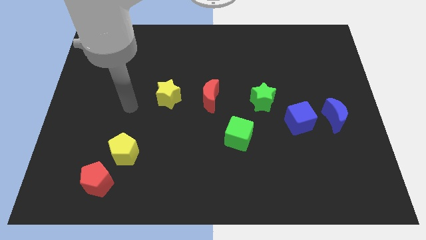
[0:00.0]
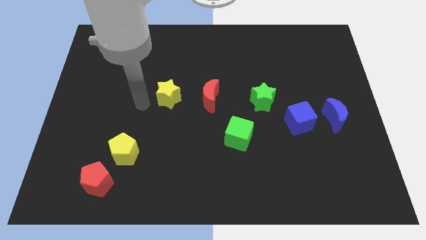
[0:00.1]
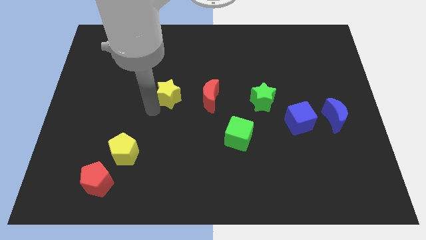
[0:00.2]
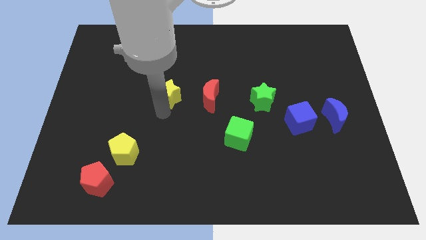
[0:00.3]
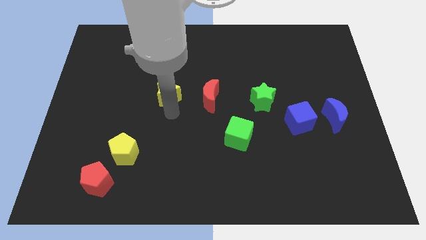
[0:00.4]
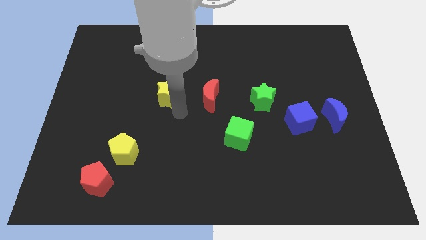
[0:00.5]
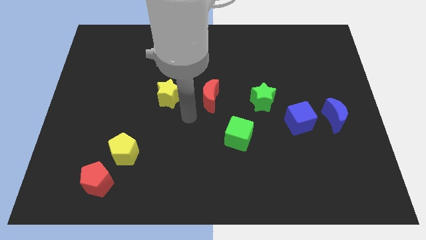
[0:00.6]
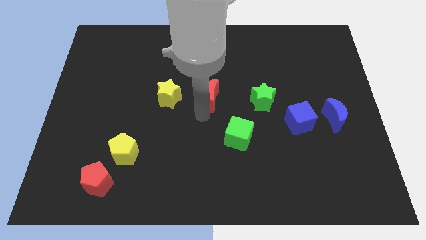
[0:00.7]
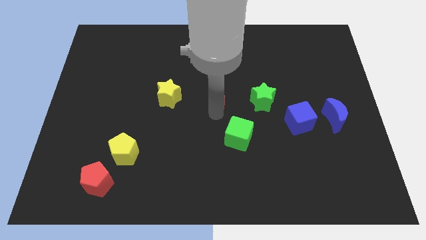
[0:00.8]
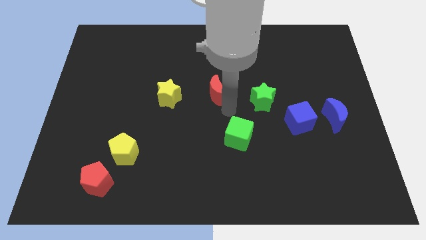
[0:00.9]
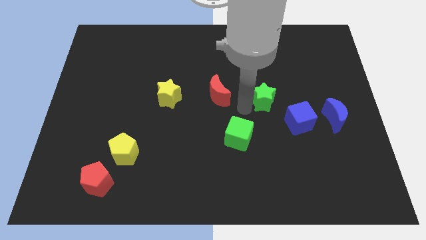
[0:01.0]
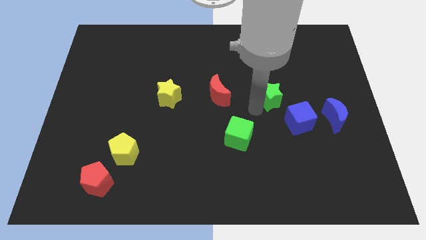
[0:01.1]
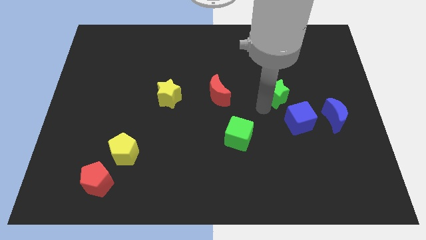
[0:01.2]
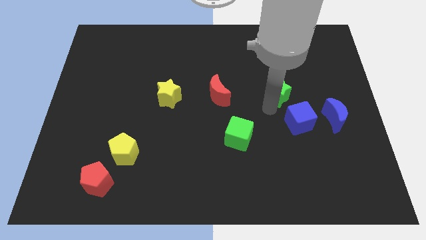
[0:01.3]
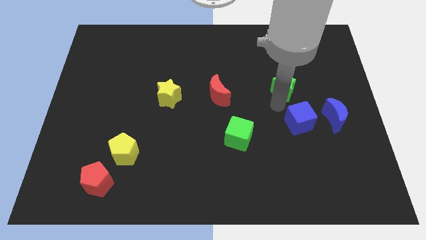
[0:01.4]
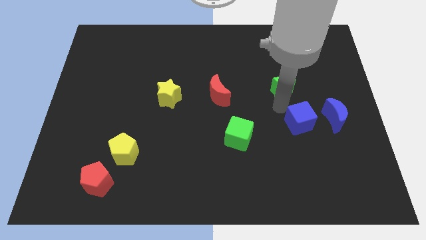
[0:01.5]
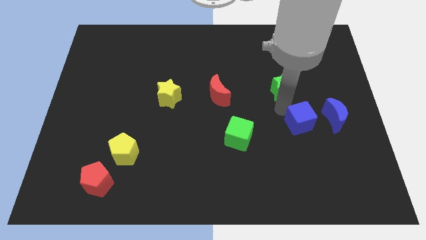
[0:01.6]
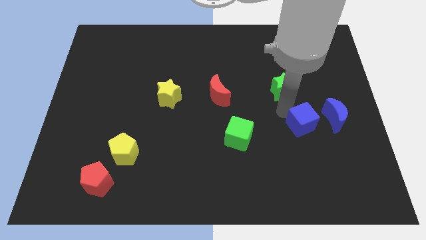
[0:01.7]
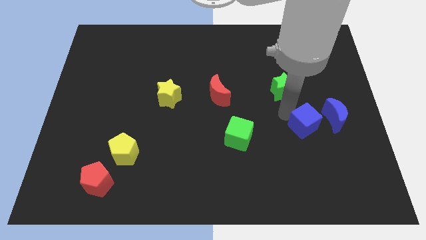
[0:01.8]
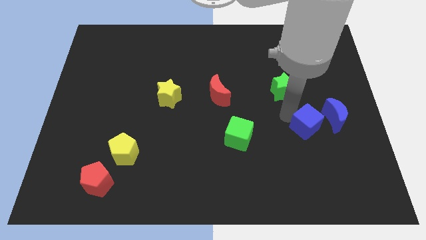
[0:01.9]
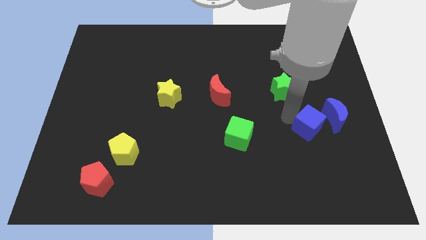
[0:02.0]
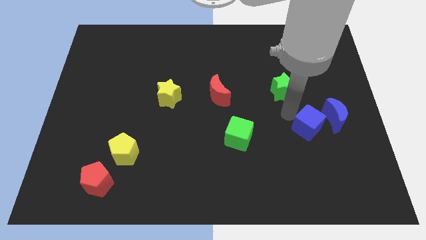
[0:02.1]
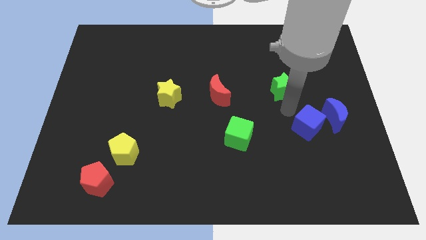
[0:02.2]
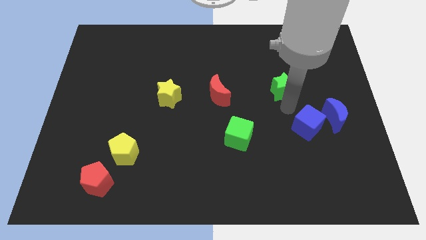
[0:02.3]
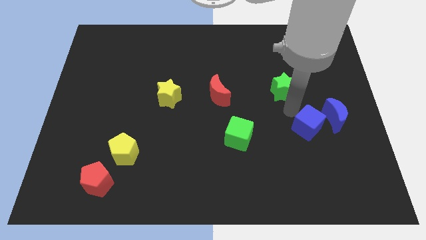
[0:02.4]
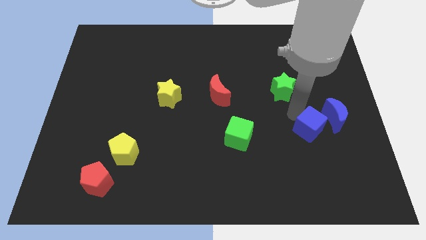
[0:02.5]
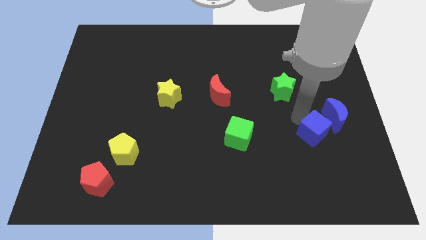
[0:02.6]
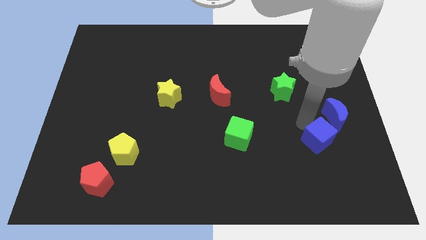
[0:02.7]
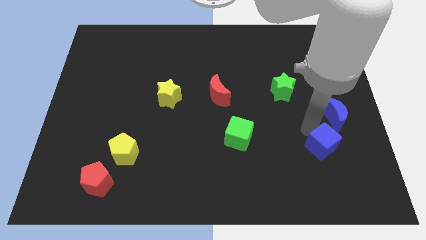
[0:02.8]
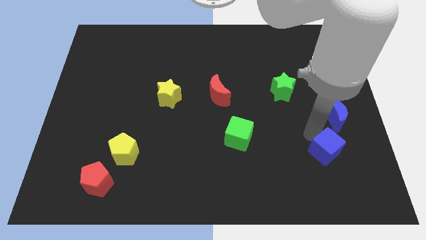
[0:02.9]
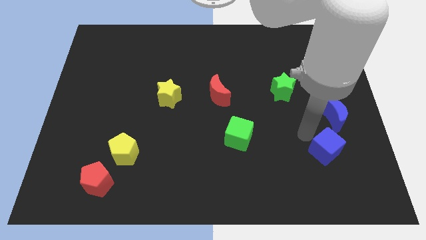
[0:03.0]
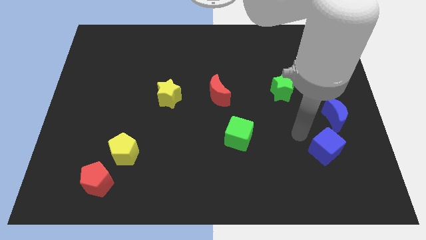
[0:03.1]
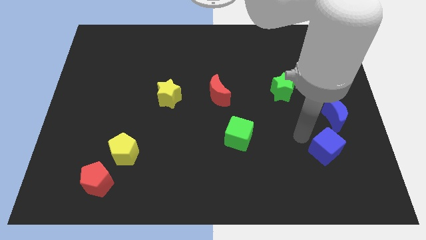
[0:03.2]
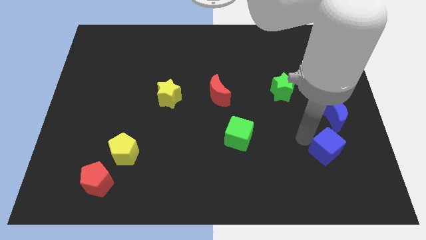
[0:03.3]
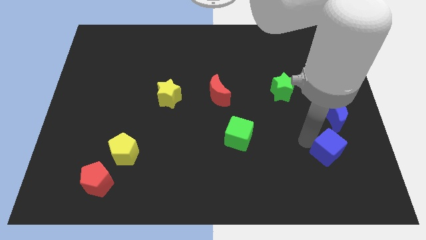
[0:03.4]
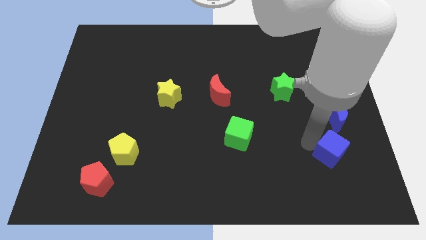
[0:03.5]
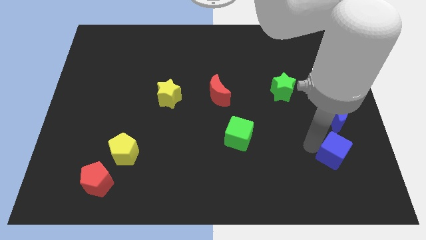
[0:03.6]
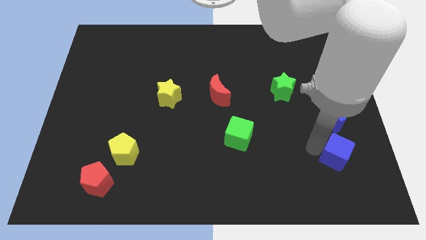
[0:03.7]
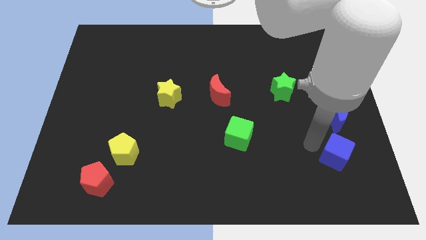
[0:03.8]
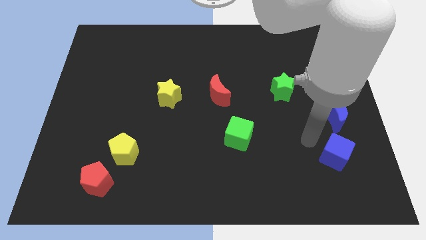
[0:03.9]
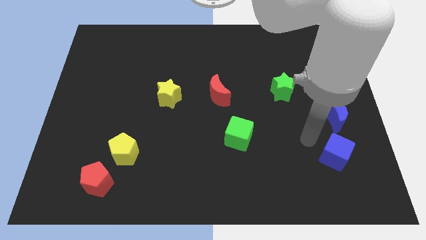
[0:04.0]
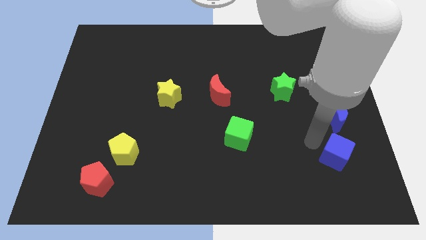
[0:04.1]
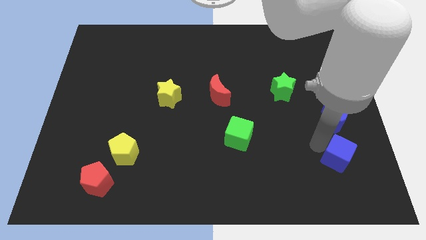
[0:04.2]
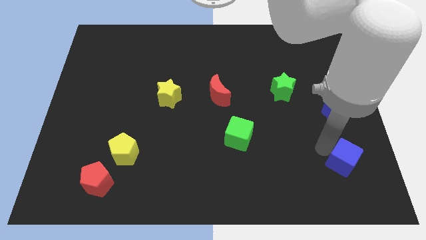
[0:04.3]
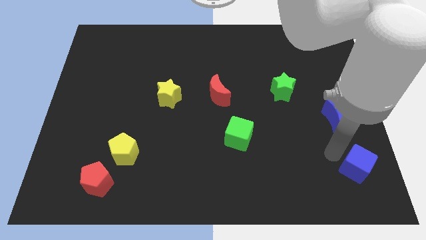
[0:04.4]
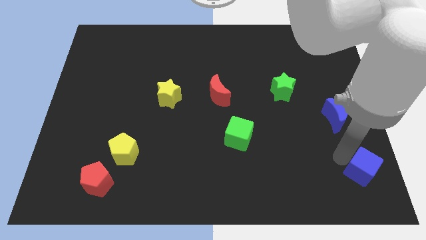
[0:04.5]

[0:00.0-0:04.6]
put the blue cube to the bottom right

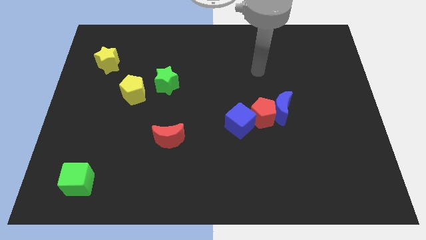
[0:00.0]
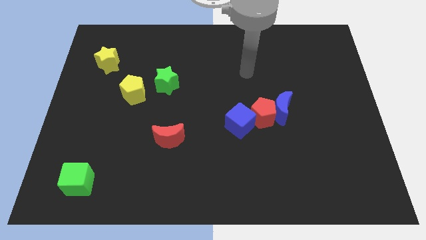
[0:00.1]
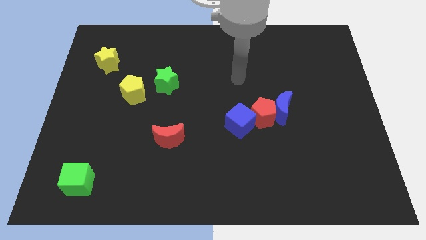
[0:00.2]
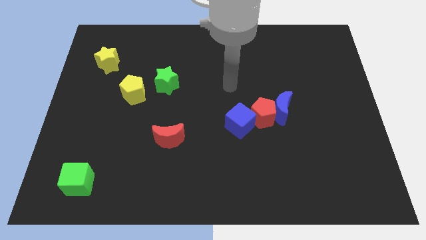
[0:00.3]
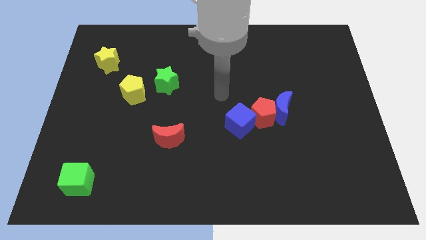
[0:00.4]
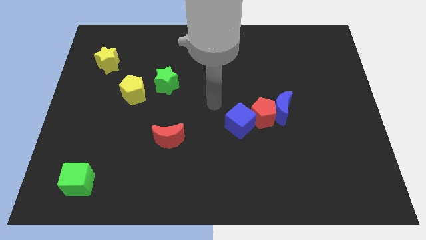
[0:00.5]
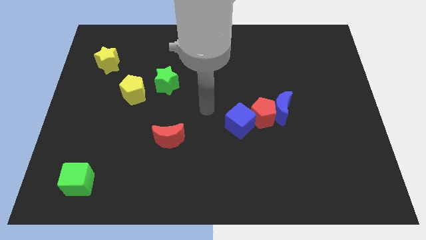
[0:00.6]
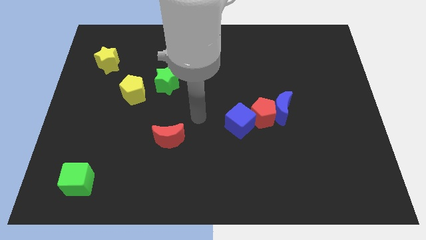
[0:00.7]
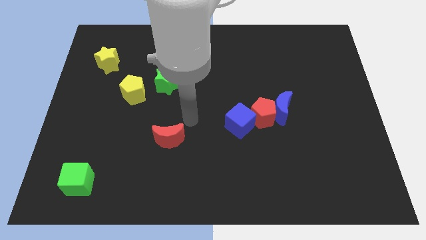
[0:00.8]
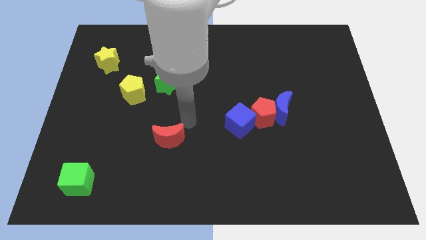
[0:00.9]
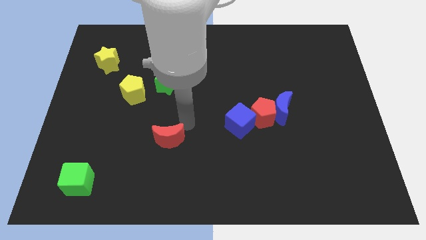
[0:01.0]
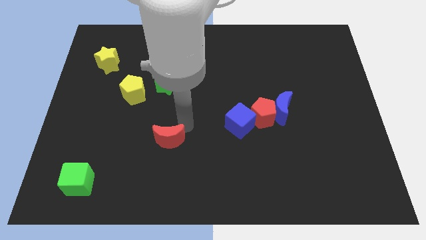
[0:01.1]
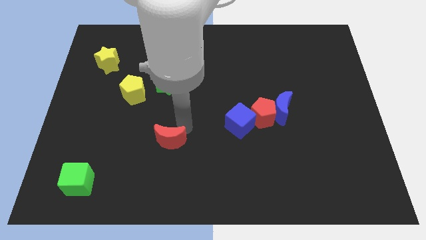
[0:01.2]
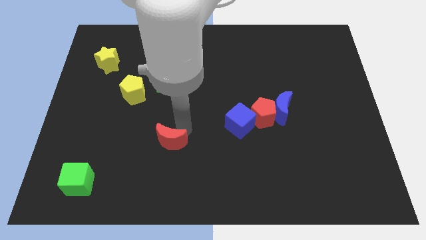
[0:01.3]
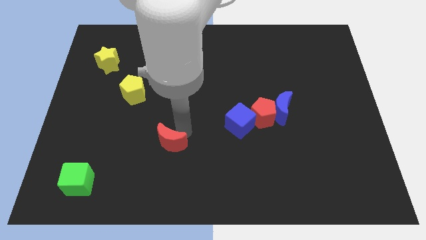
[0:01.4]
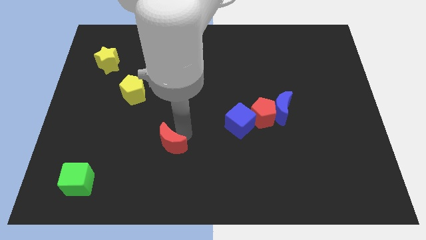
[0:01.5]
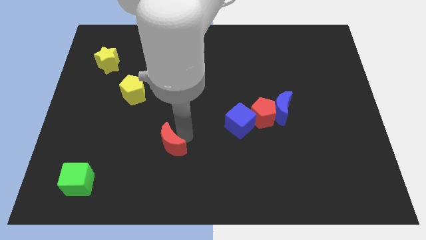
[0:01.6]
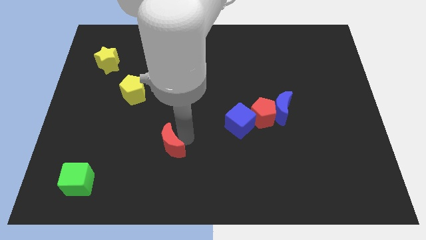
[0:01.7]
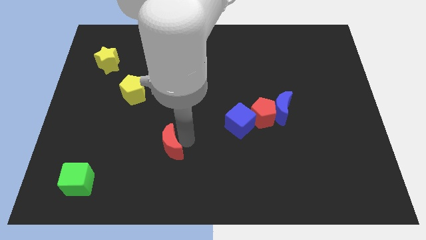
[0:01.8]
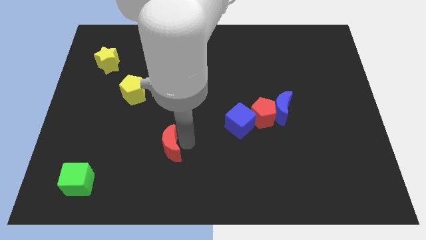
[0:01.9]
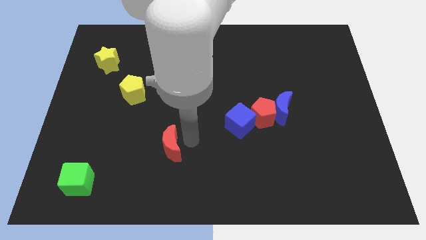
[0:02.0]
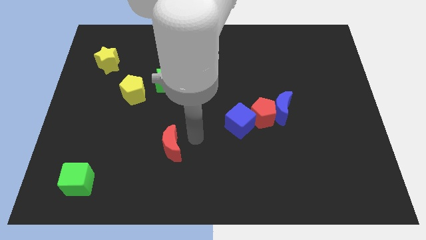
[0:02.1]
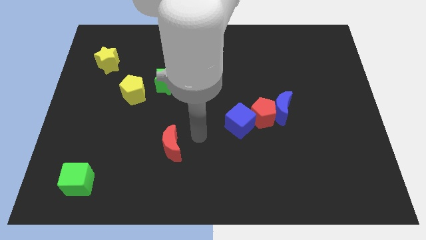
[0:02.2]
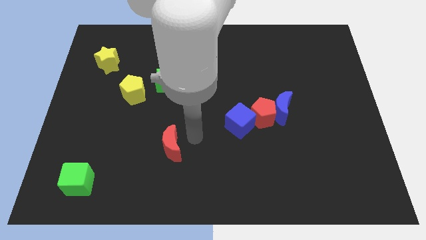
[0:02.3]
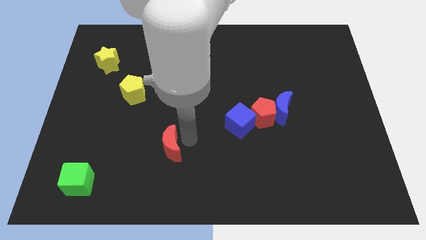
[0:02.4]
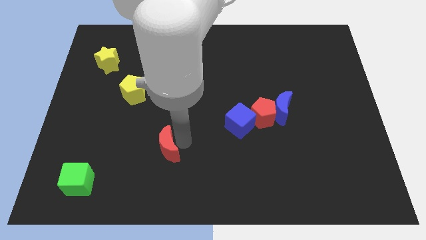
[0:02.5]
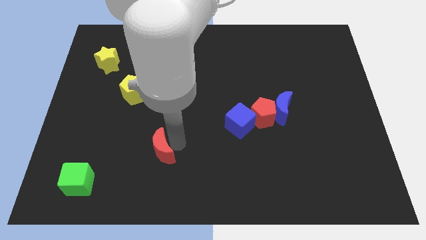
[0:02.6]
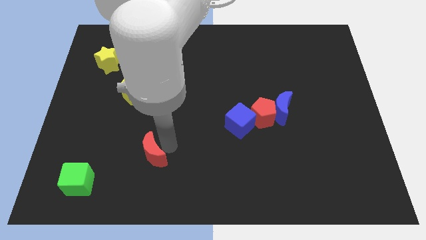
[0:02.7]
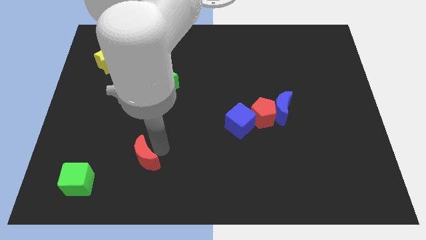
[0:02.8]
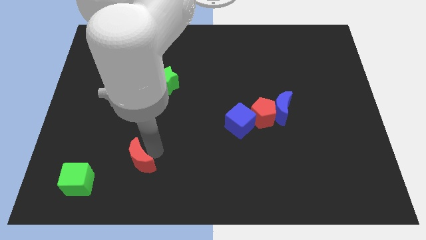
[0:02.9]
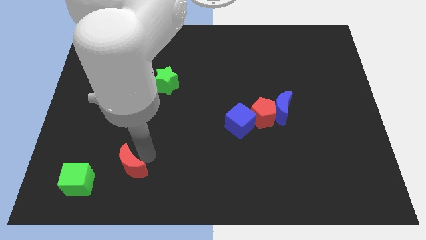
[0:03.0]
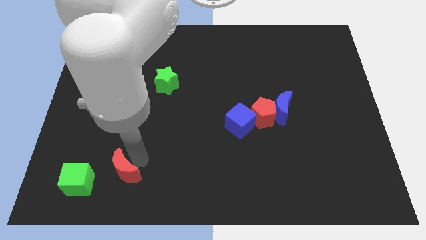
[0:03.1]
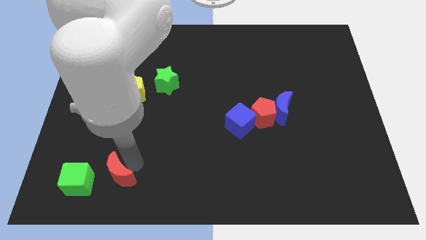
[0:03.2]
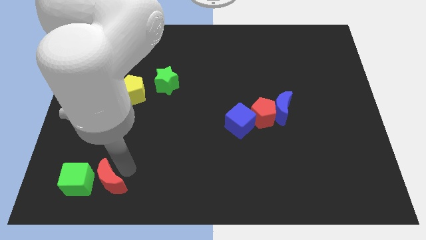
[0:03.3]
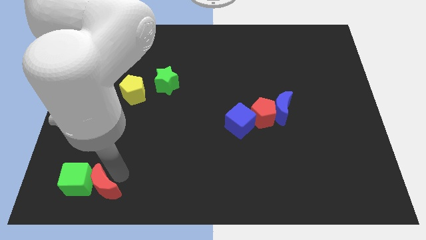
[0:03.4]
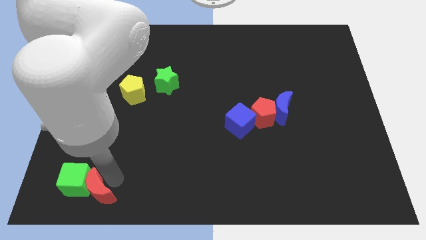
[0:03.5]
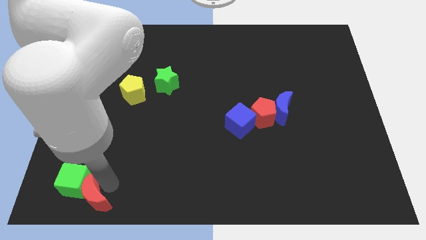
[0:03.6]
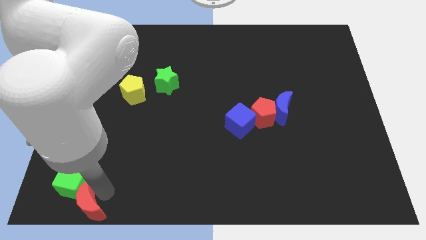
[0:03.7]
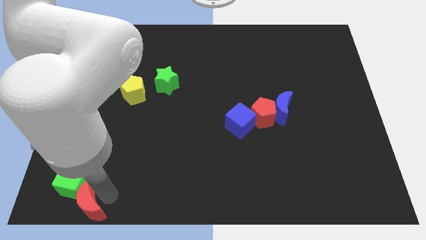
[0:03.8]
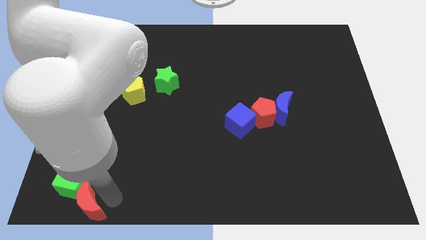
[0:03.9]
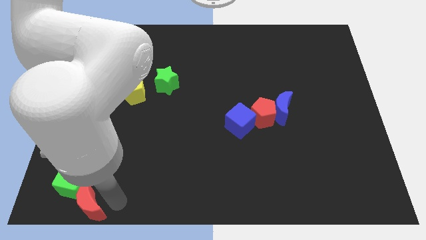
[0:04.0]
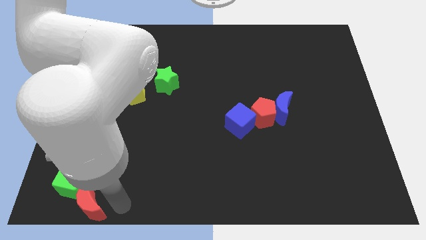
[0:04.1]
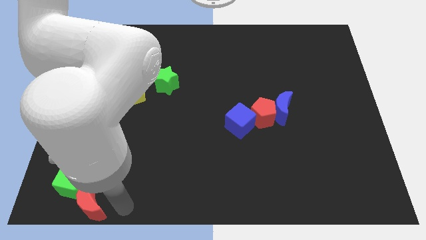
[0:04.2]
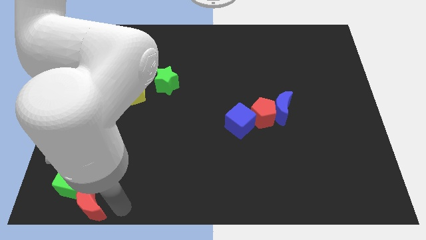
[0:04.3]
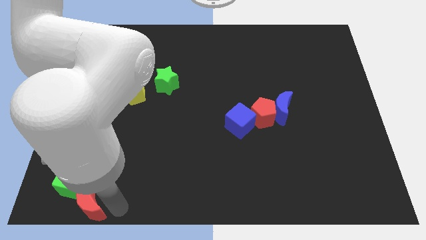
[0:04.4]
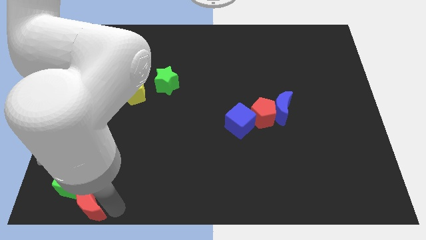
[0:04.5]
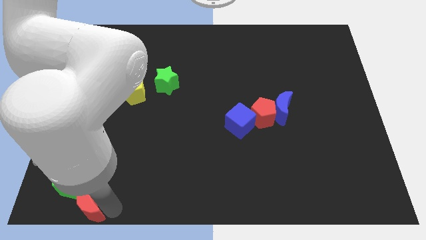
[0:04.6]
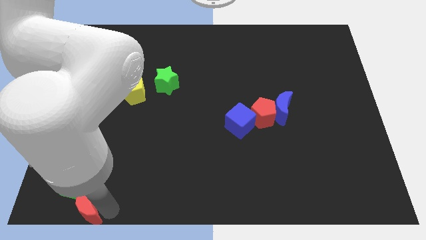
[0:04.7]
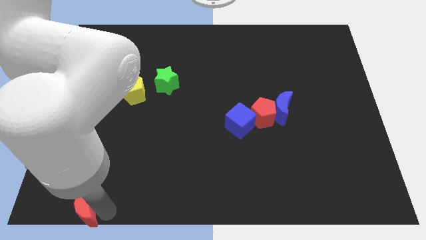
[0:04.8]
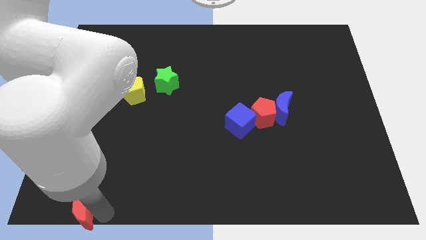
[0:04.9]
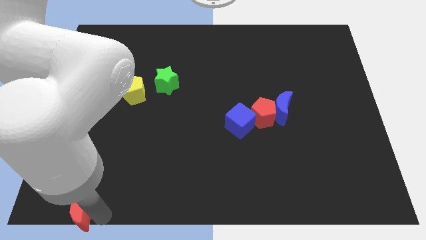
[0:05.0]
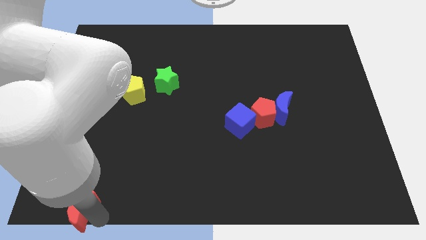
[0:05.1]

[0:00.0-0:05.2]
slide the red moon to the bottom left of the board
